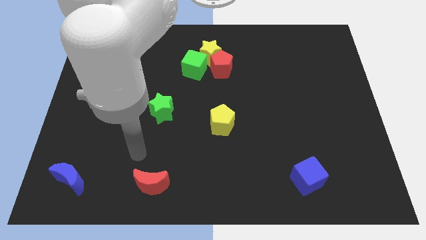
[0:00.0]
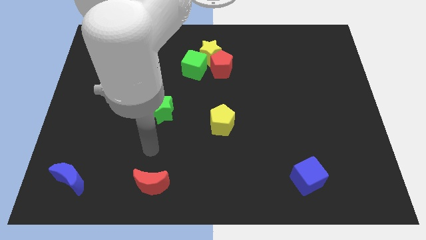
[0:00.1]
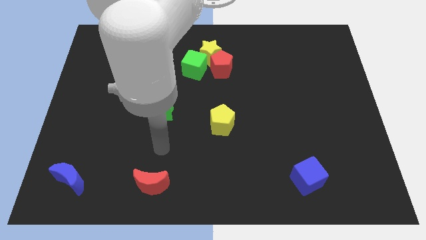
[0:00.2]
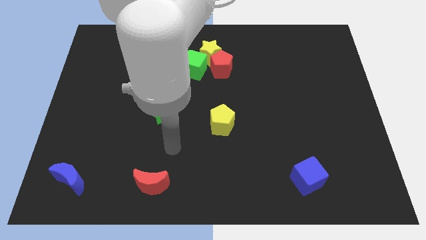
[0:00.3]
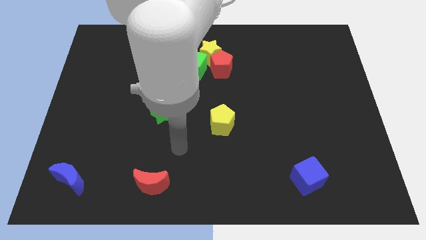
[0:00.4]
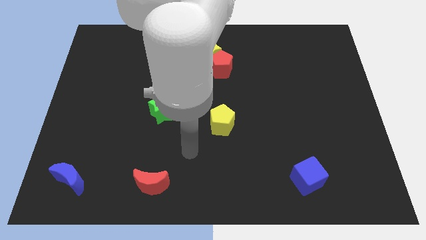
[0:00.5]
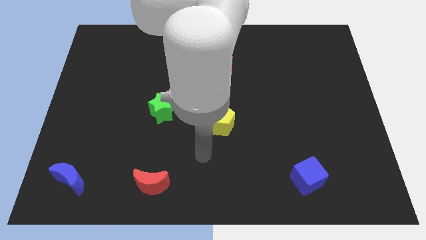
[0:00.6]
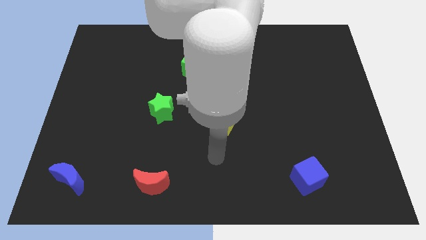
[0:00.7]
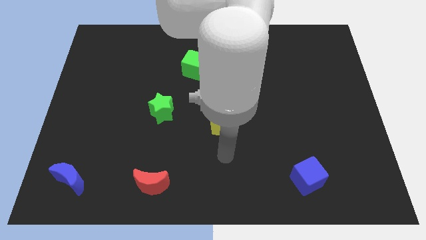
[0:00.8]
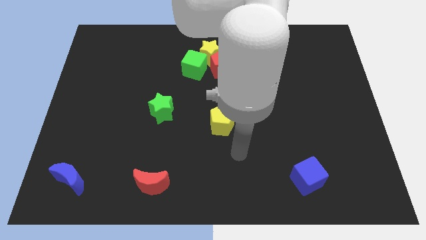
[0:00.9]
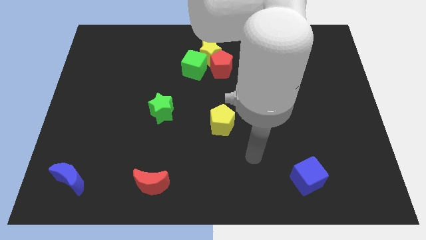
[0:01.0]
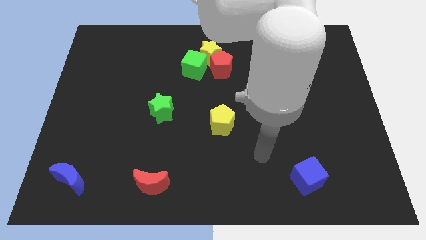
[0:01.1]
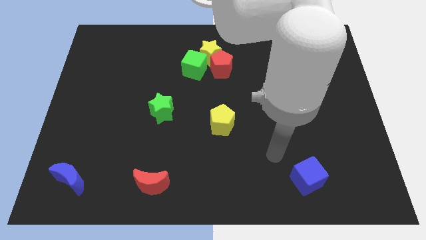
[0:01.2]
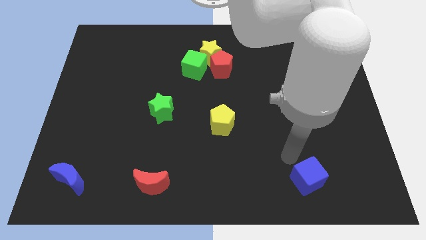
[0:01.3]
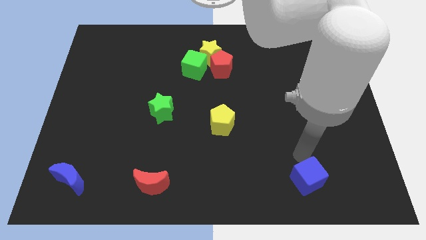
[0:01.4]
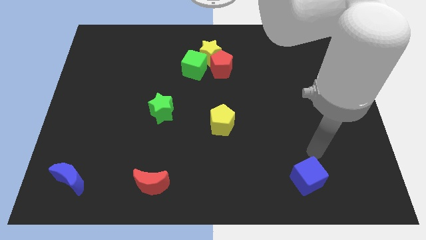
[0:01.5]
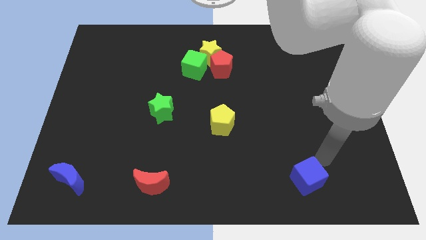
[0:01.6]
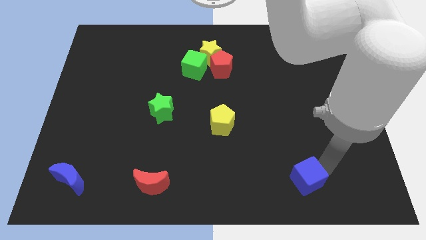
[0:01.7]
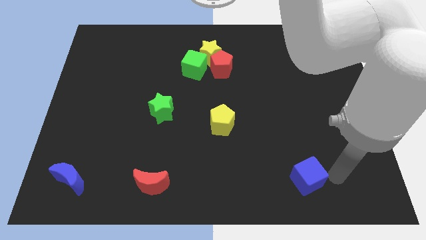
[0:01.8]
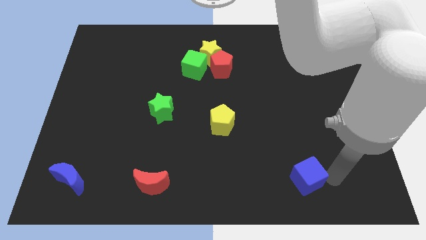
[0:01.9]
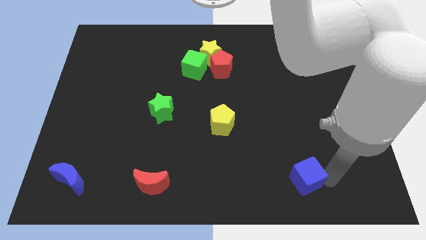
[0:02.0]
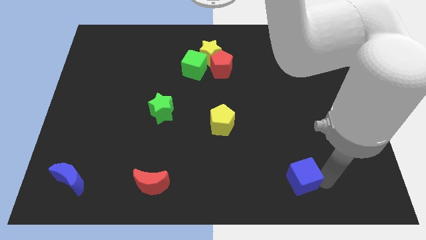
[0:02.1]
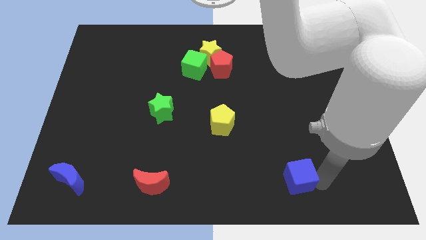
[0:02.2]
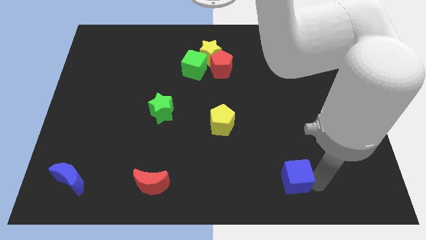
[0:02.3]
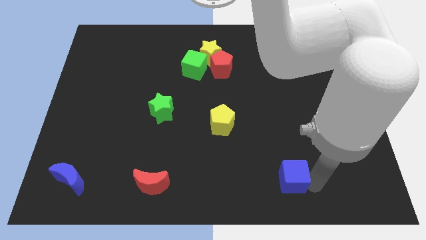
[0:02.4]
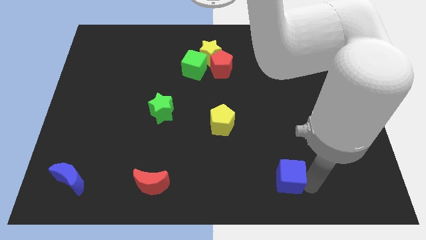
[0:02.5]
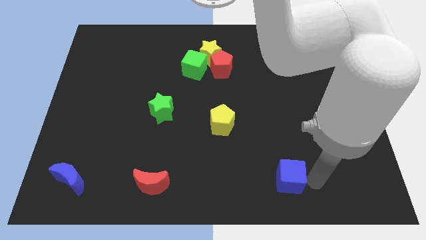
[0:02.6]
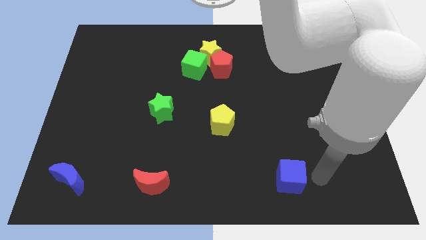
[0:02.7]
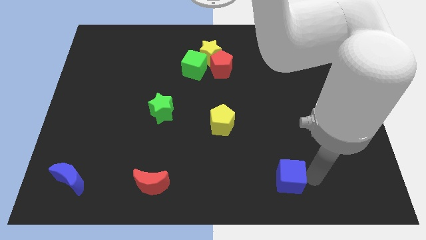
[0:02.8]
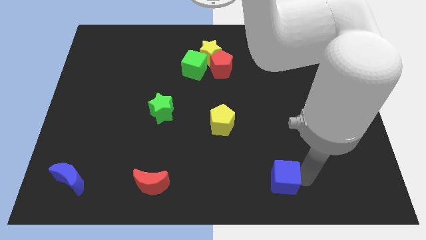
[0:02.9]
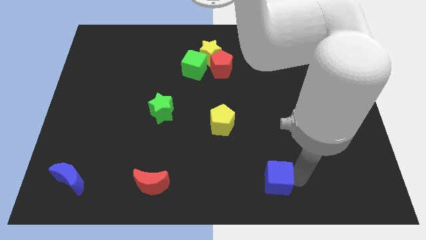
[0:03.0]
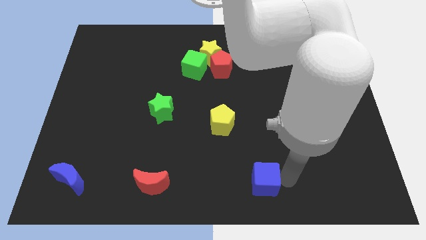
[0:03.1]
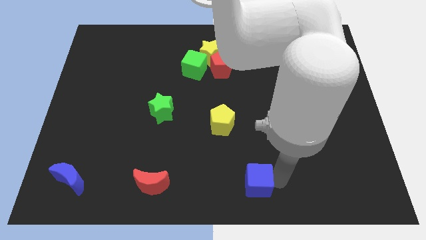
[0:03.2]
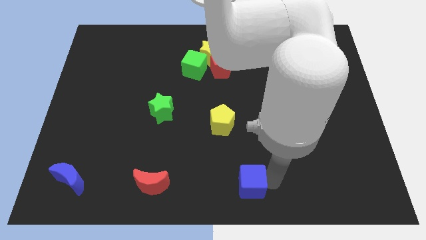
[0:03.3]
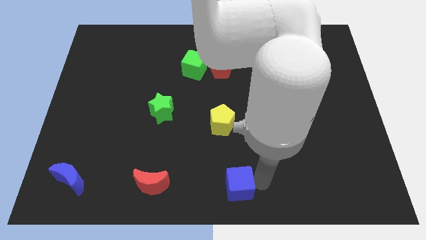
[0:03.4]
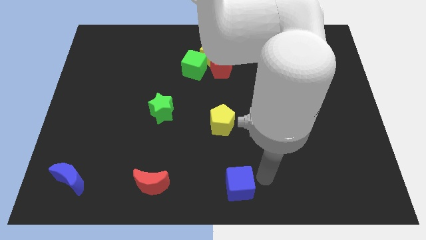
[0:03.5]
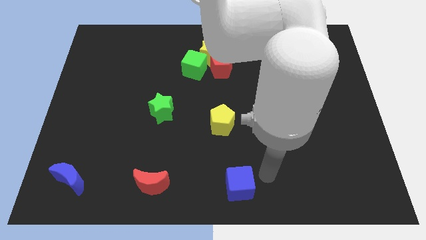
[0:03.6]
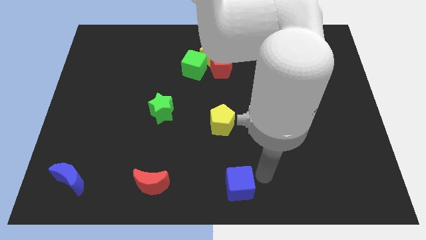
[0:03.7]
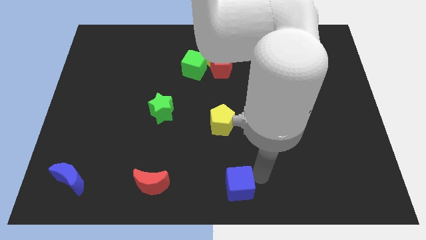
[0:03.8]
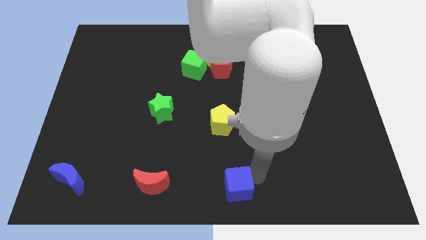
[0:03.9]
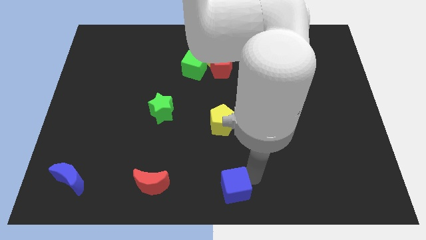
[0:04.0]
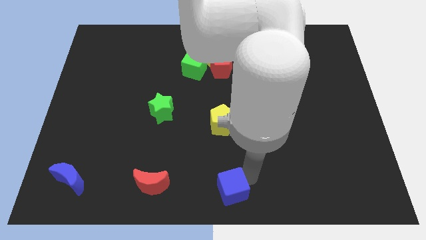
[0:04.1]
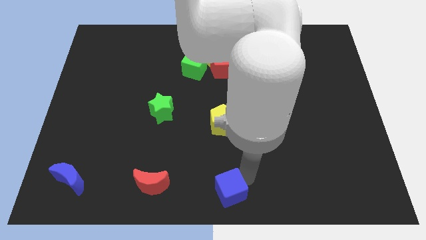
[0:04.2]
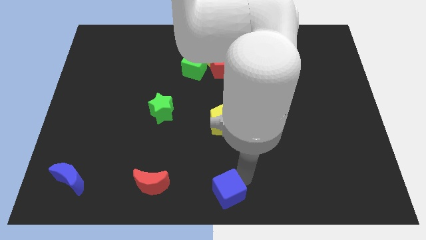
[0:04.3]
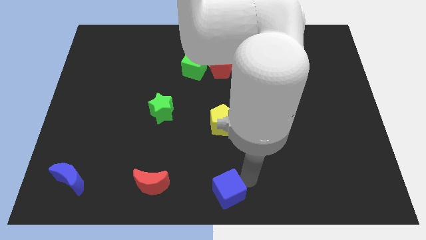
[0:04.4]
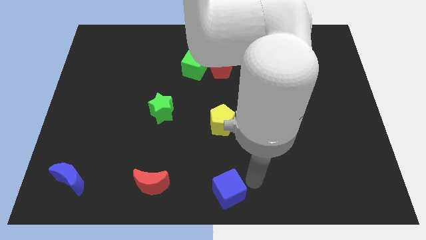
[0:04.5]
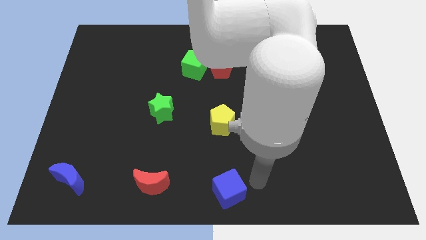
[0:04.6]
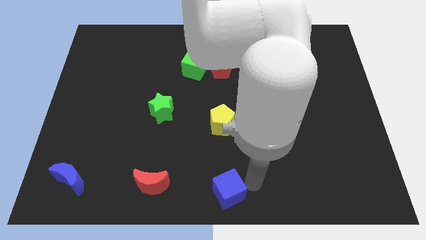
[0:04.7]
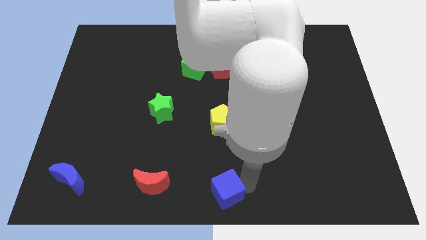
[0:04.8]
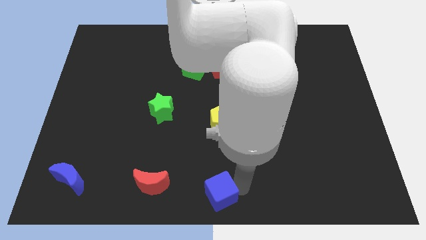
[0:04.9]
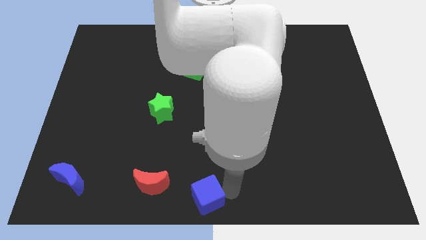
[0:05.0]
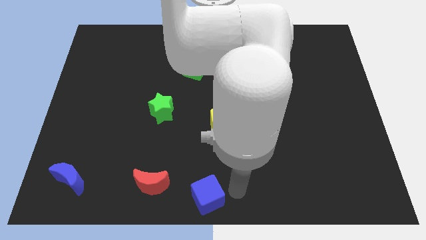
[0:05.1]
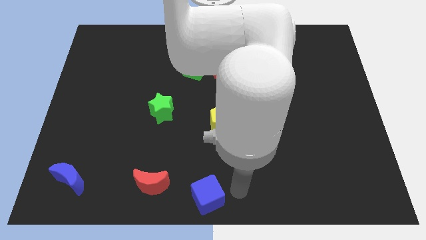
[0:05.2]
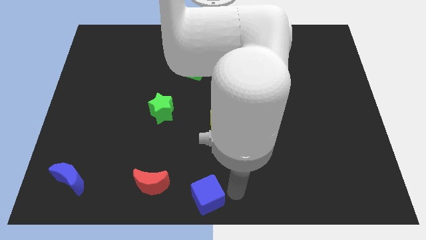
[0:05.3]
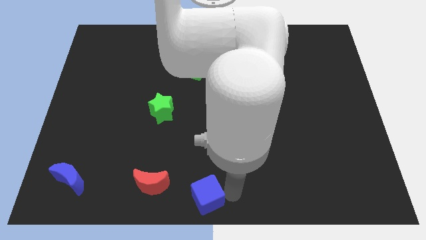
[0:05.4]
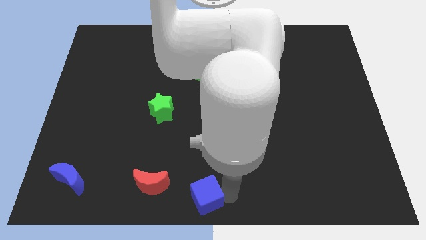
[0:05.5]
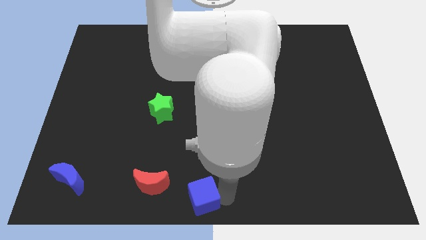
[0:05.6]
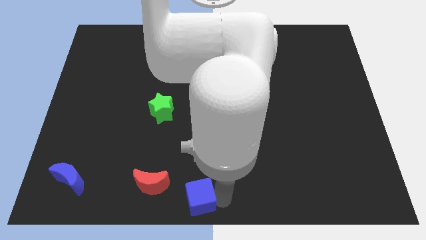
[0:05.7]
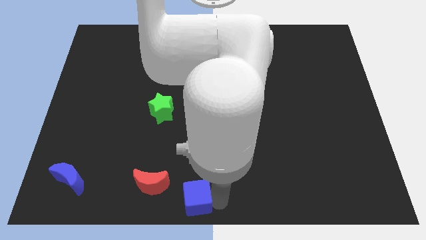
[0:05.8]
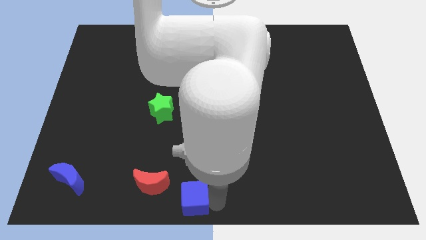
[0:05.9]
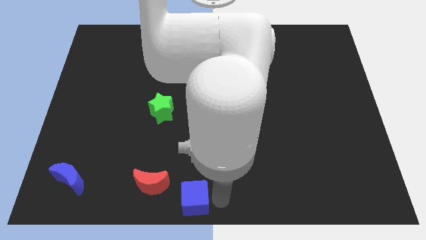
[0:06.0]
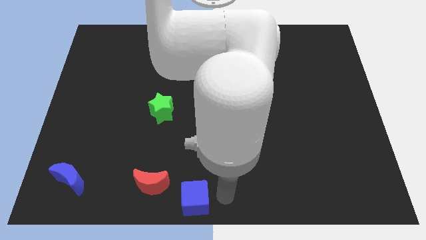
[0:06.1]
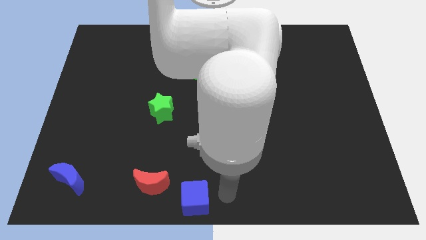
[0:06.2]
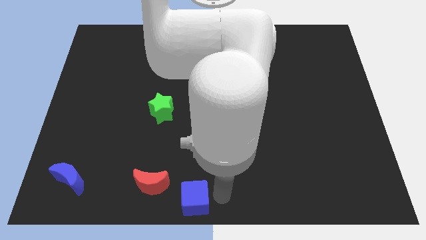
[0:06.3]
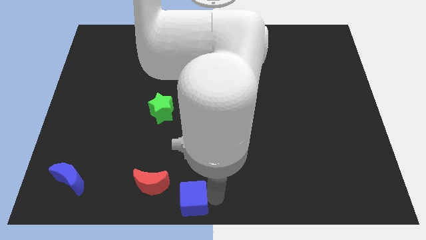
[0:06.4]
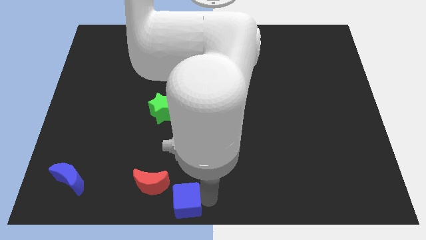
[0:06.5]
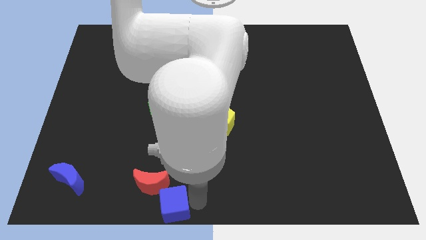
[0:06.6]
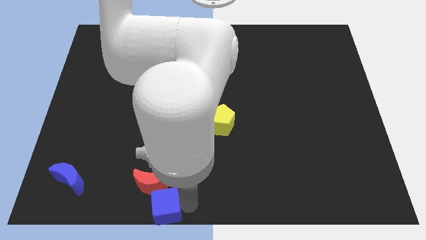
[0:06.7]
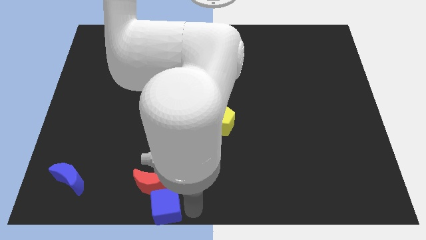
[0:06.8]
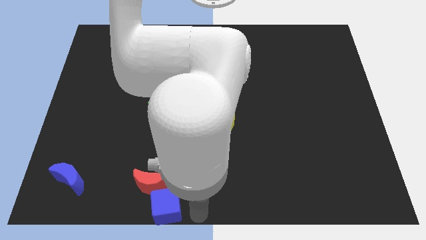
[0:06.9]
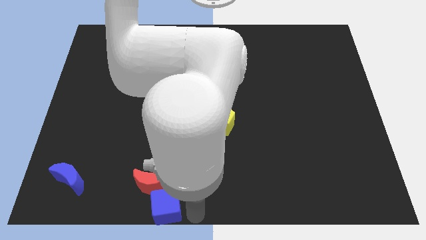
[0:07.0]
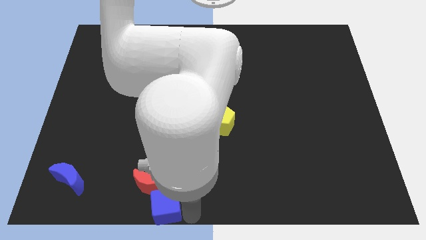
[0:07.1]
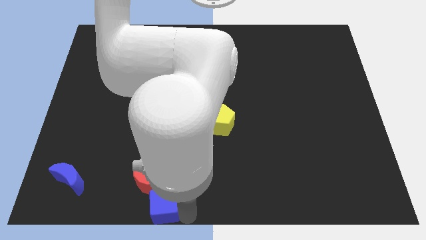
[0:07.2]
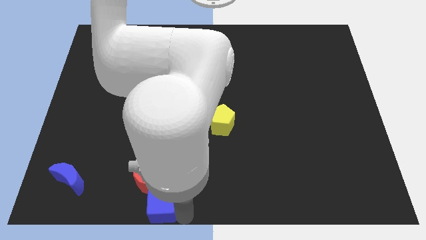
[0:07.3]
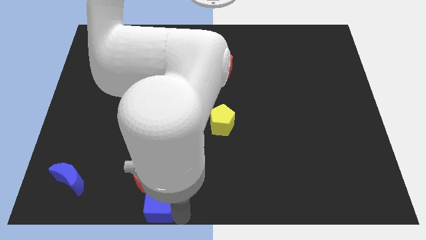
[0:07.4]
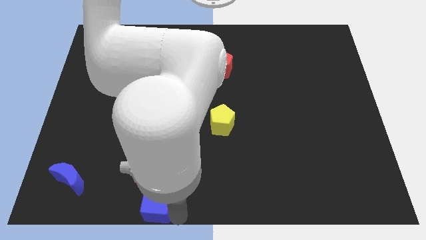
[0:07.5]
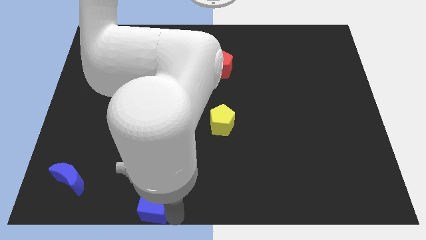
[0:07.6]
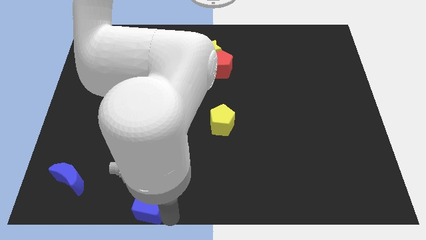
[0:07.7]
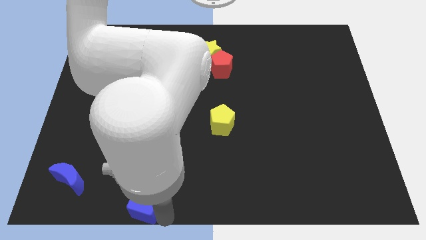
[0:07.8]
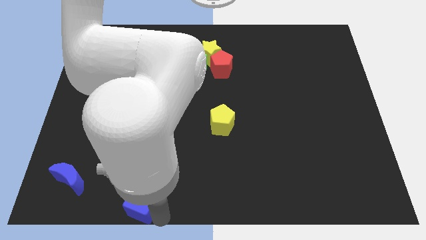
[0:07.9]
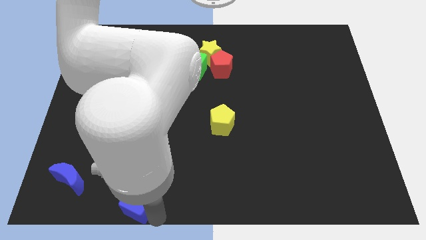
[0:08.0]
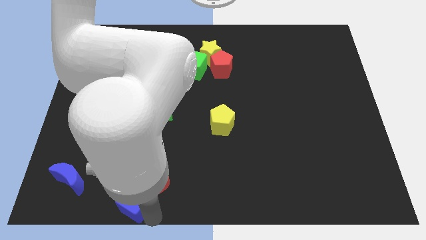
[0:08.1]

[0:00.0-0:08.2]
put the blue cube to the left of the red moon
